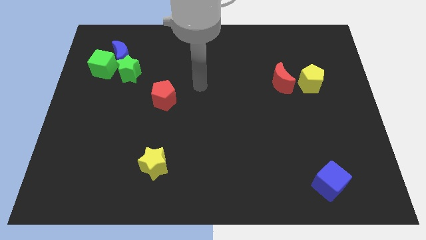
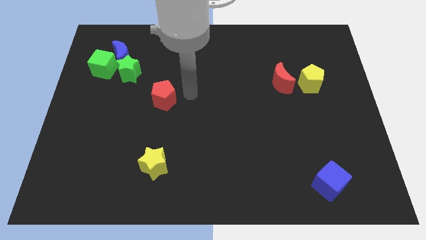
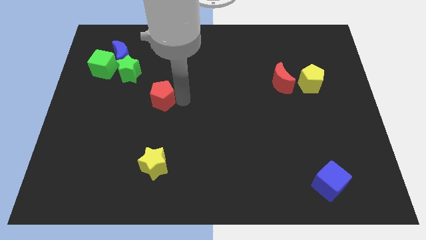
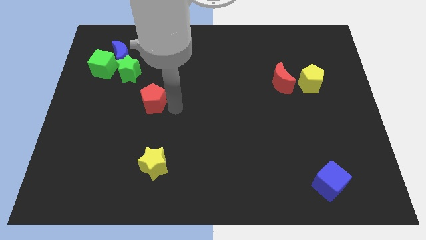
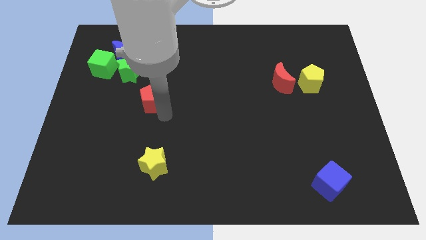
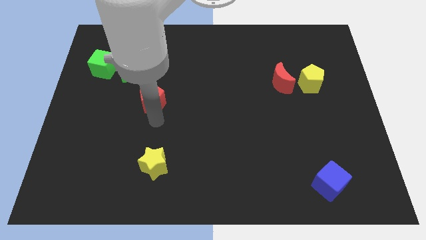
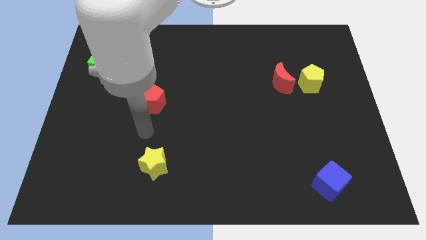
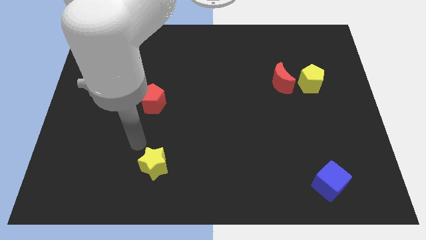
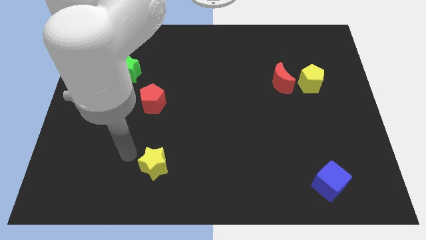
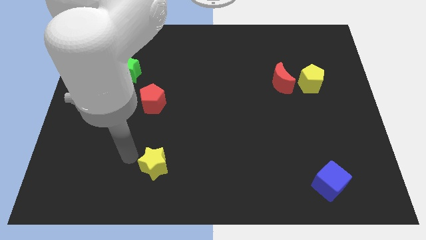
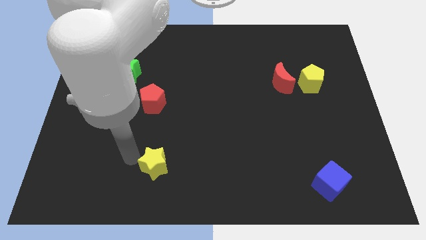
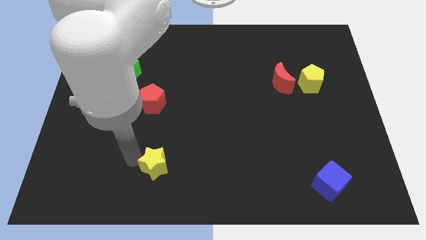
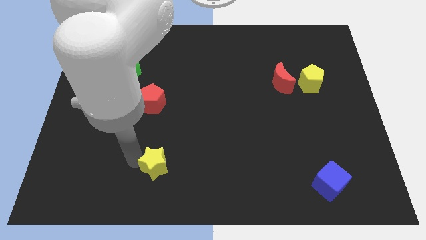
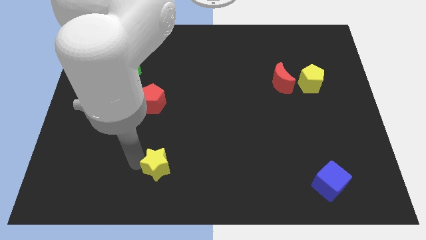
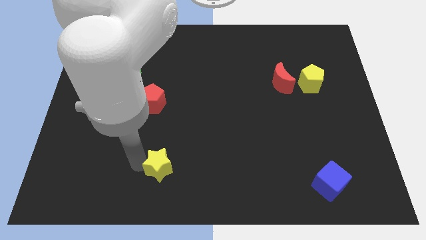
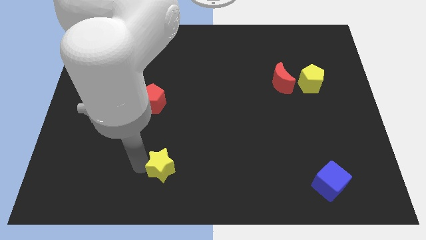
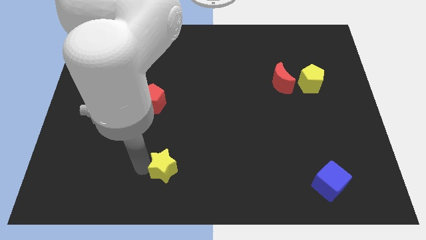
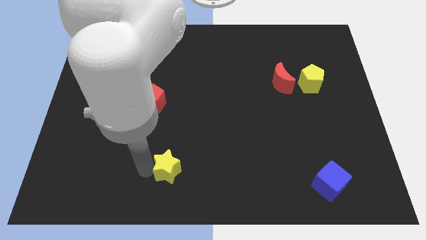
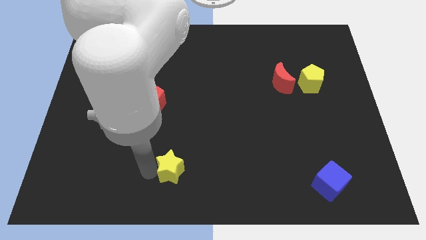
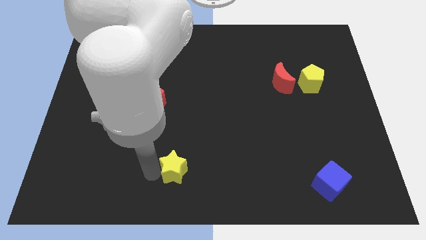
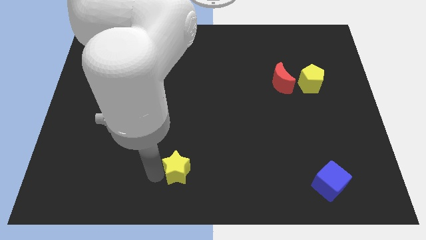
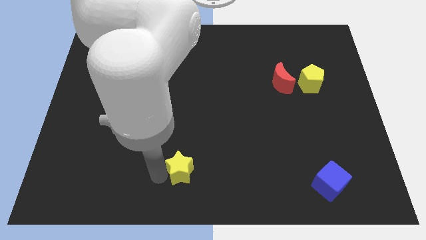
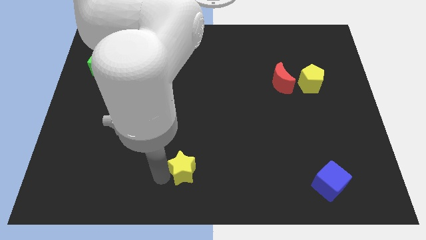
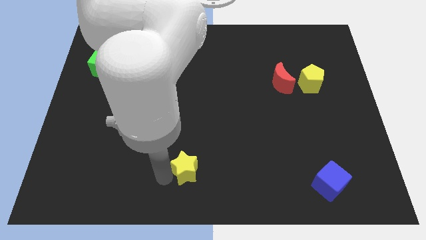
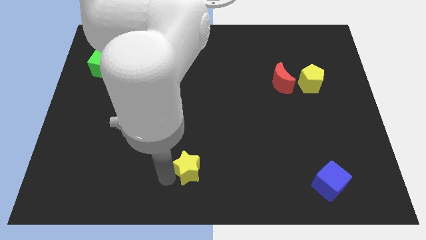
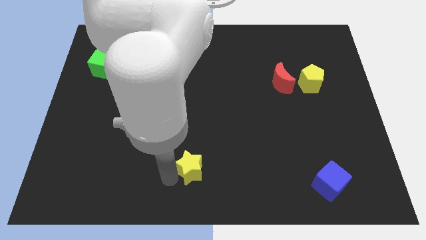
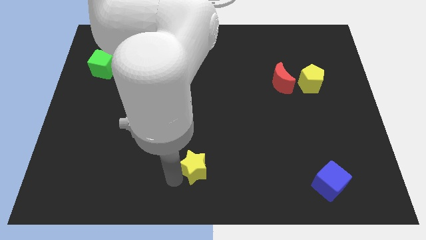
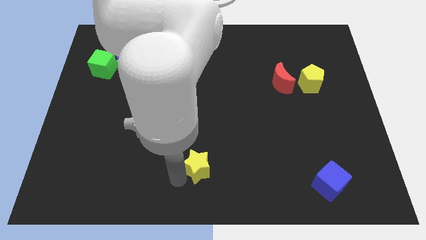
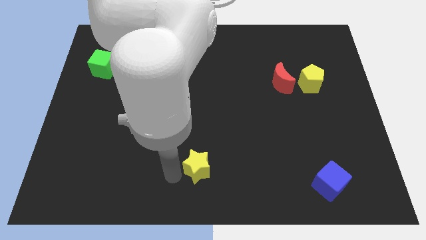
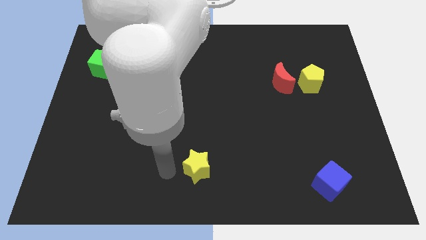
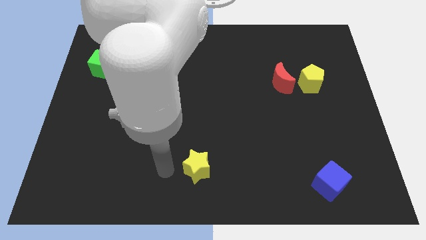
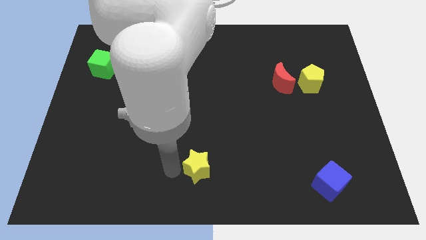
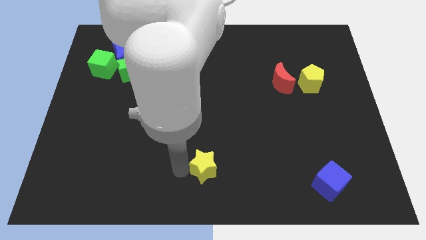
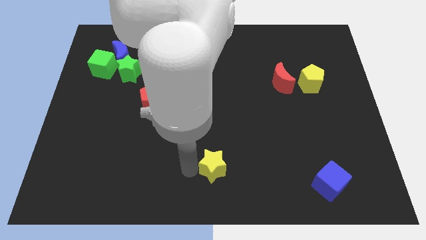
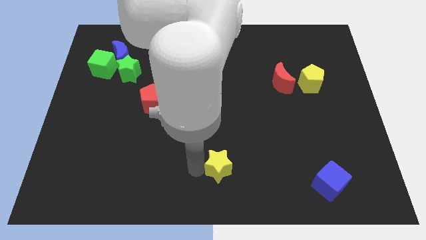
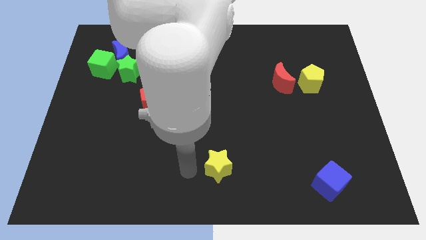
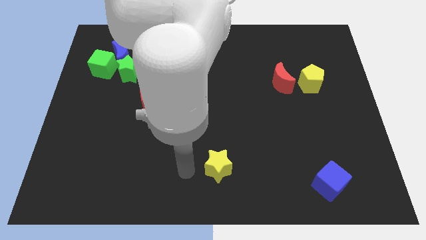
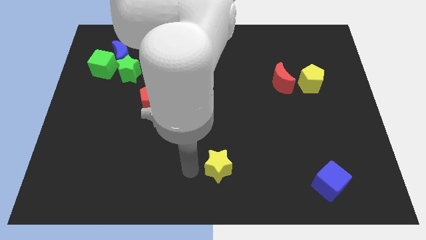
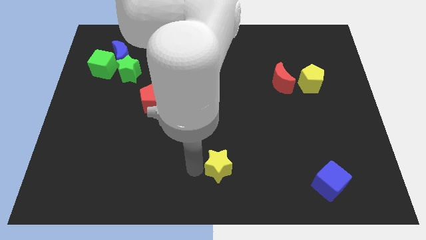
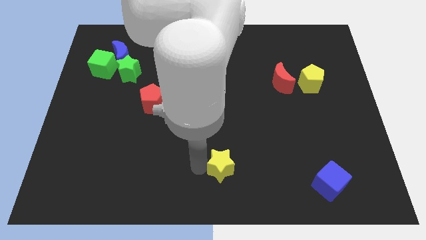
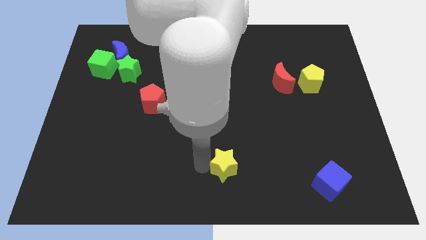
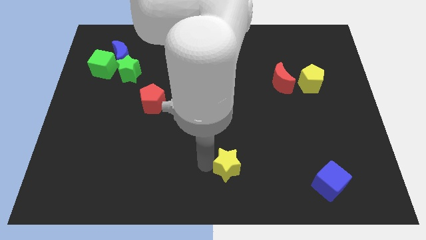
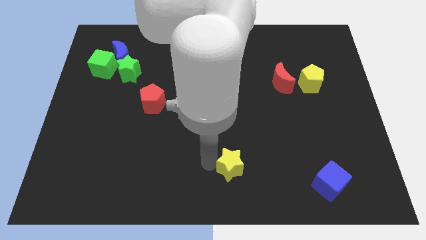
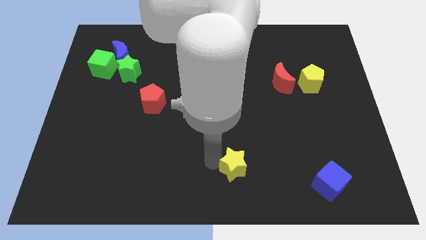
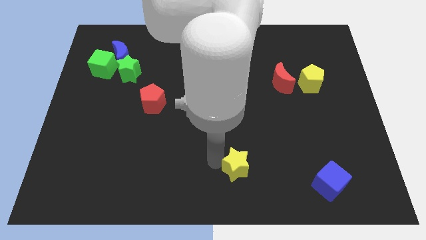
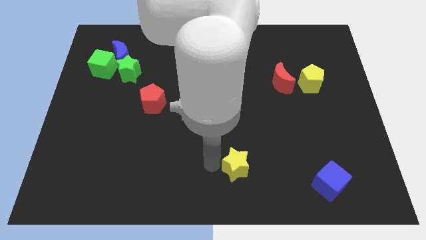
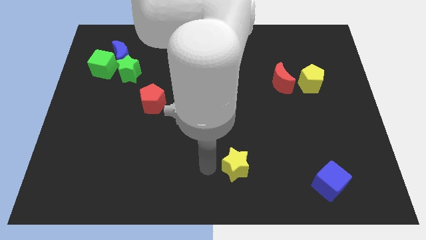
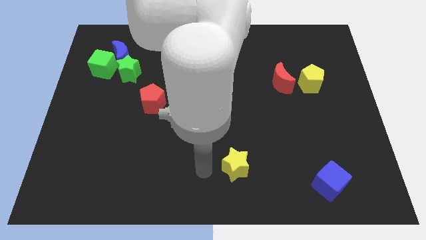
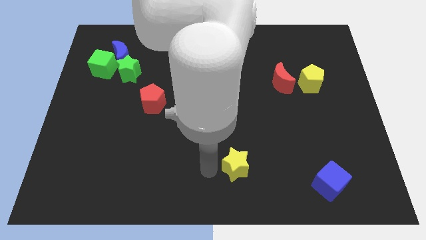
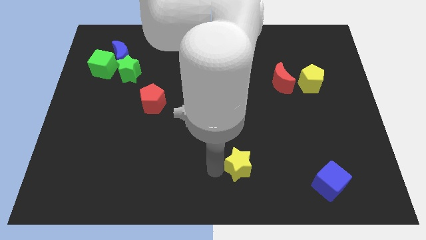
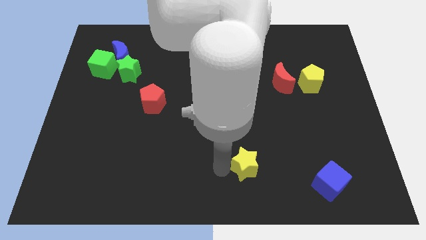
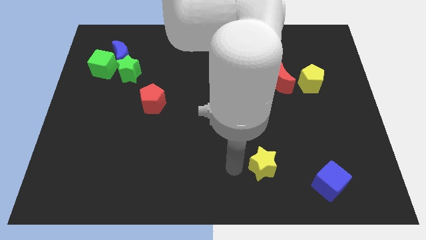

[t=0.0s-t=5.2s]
push the yellow star right

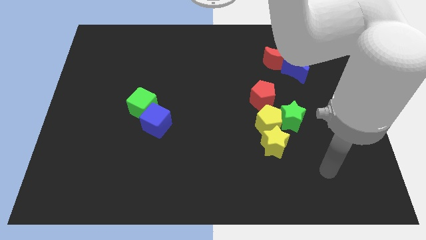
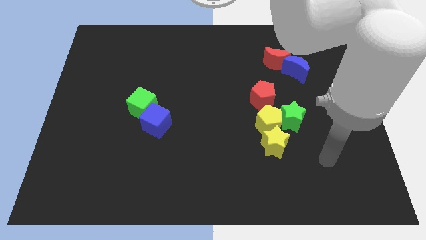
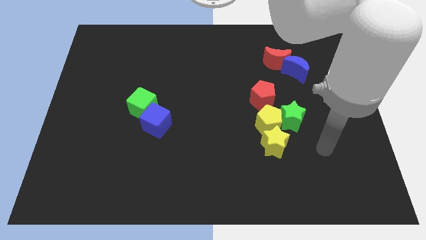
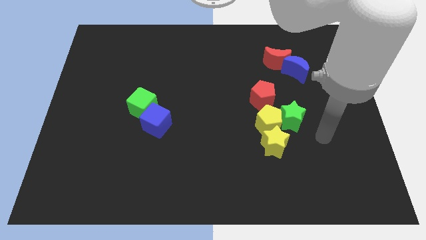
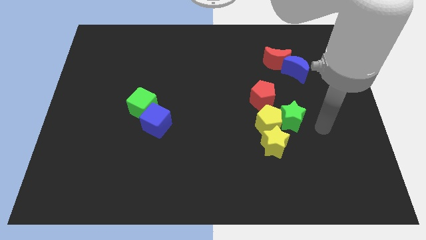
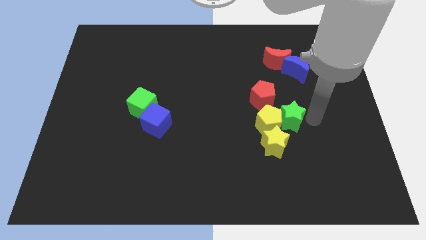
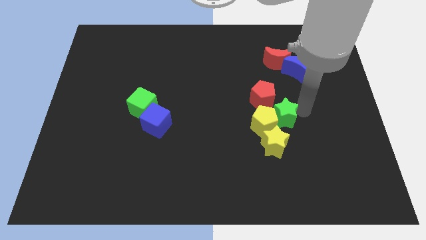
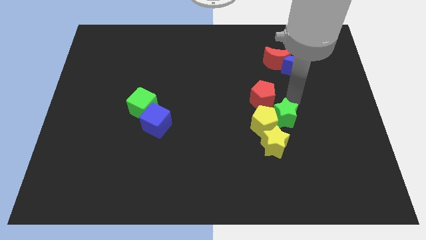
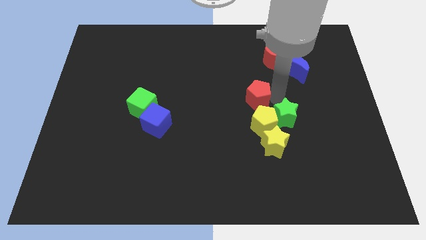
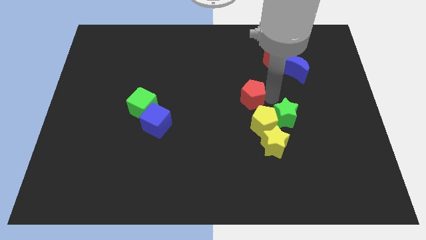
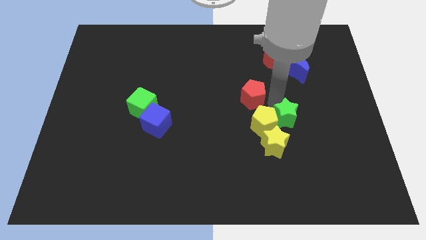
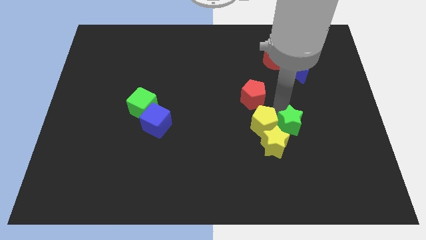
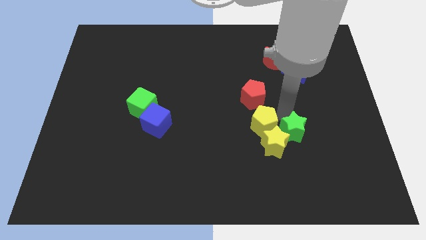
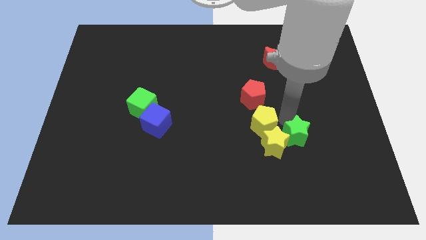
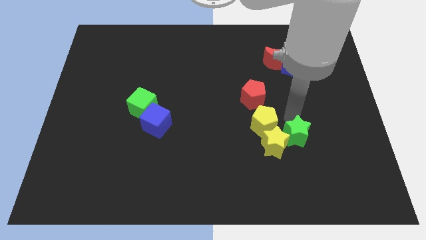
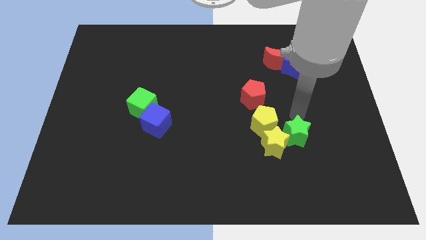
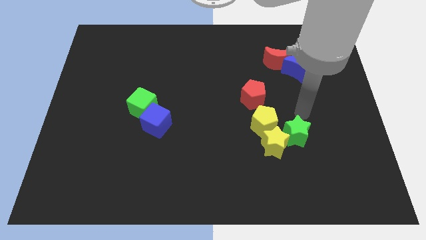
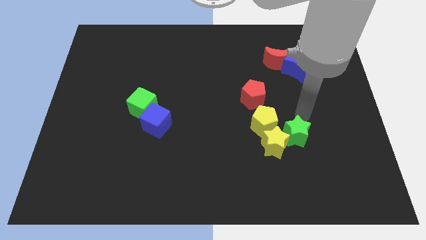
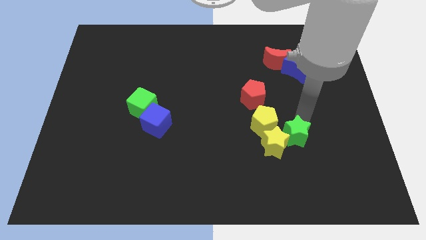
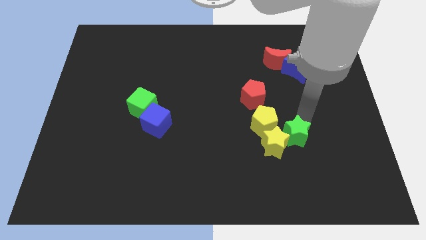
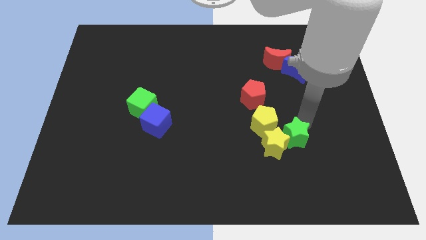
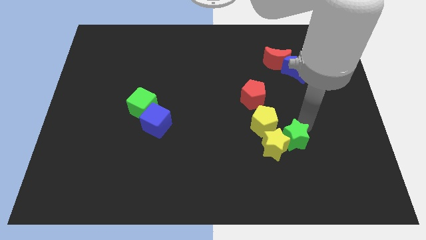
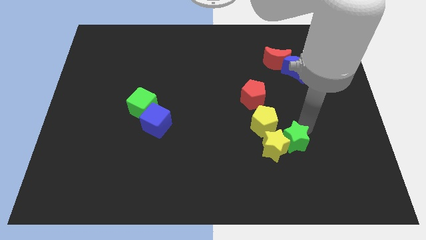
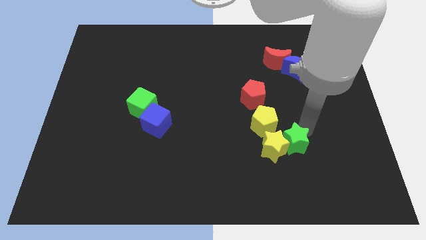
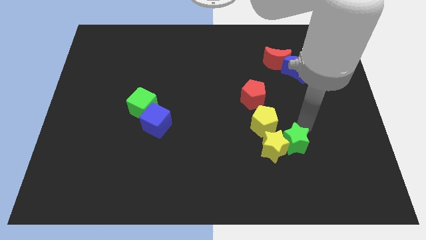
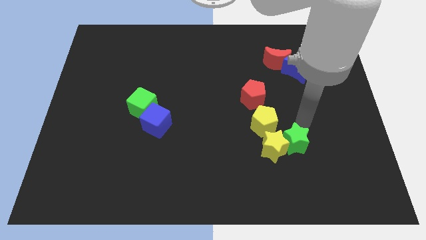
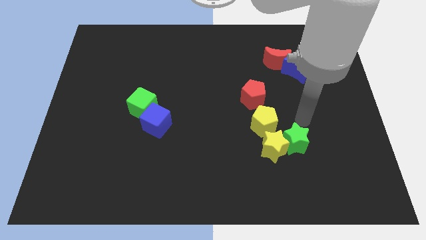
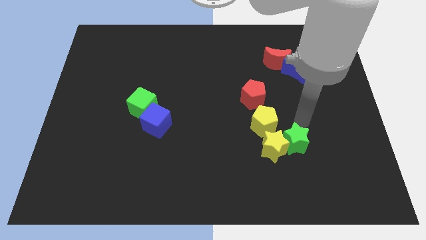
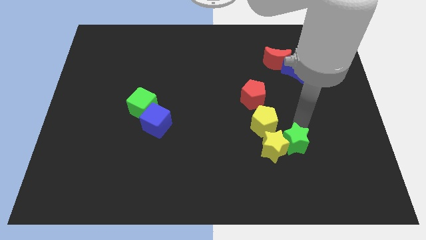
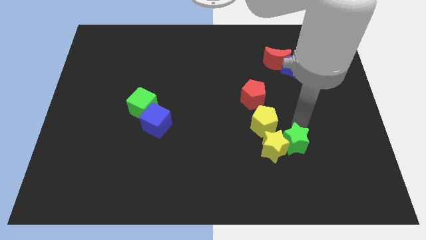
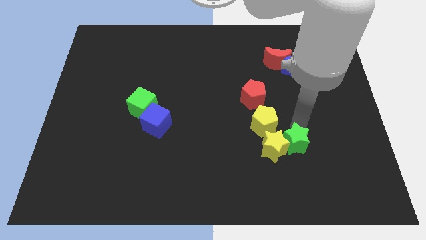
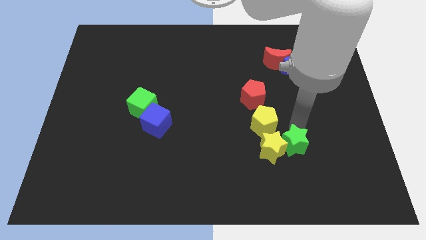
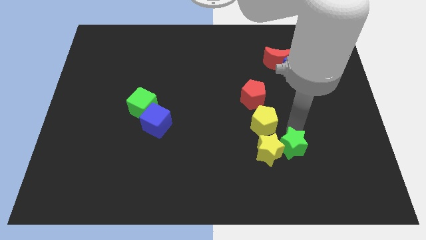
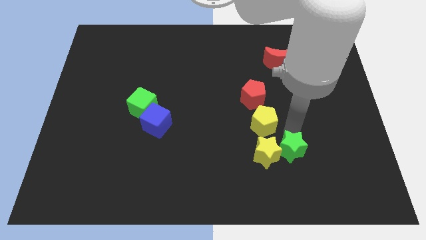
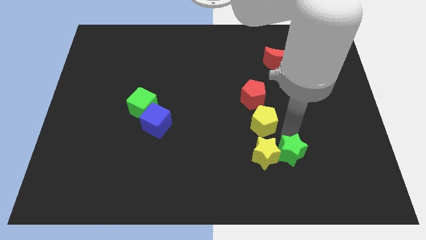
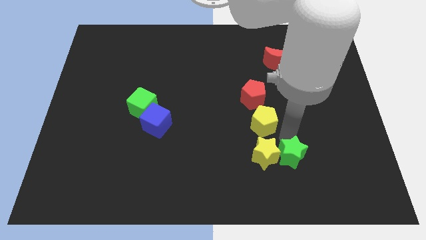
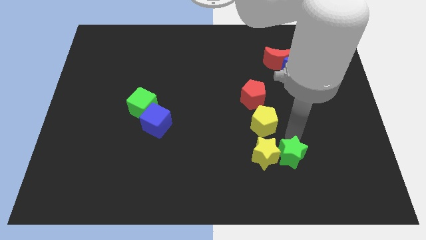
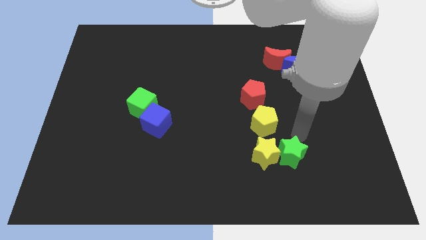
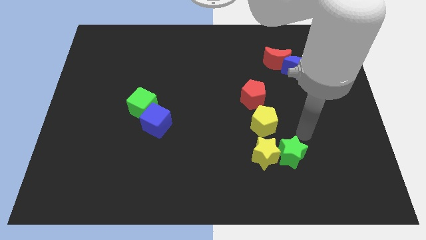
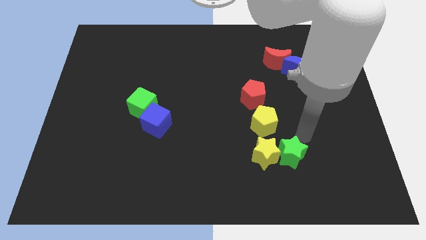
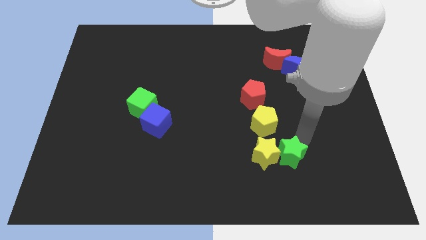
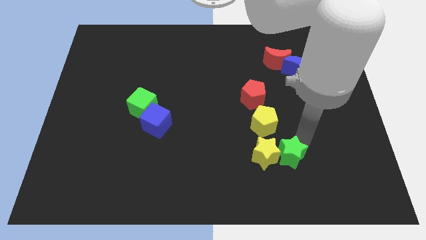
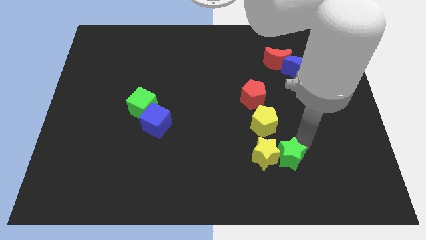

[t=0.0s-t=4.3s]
slightly push the green star diagonally downwards and to the left
